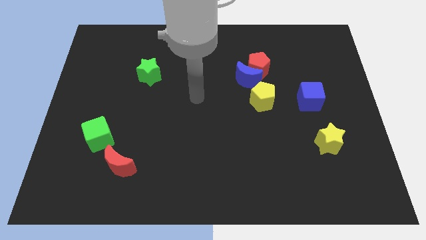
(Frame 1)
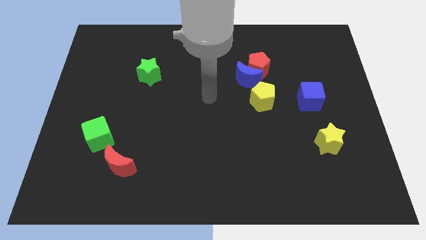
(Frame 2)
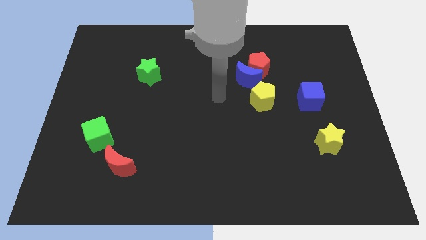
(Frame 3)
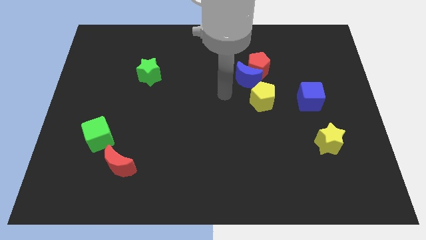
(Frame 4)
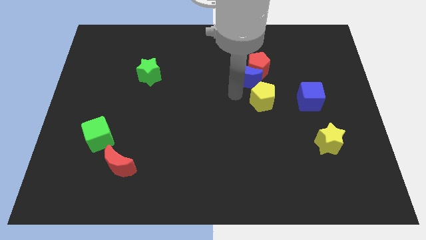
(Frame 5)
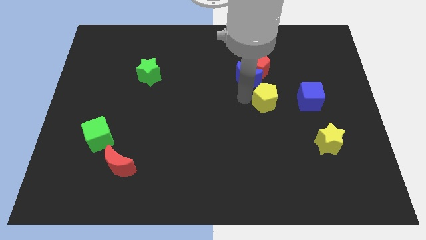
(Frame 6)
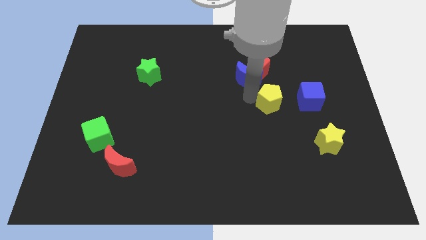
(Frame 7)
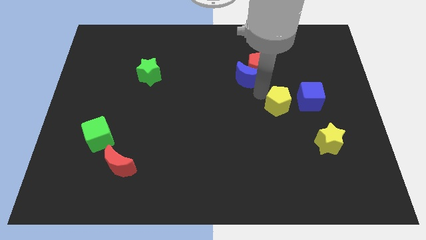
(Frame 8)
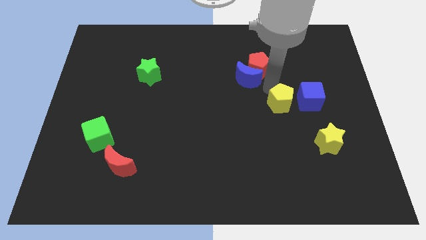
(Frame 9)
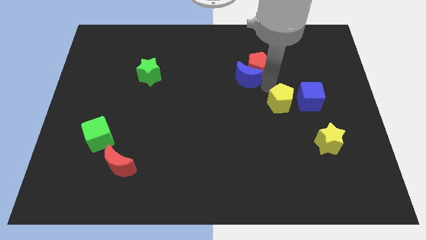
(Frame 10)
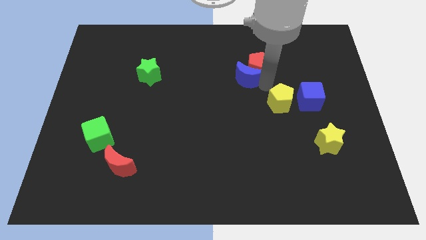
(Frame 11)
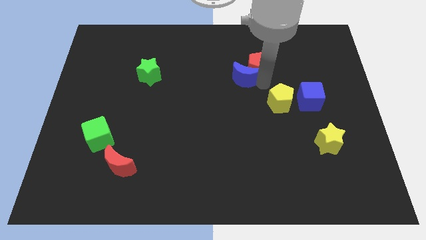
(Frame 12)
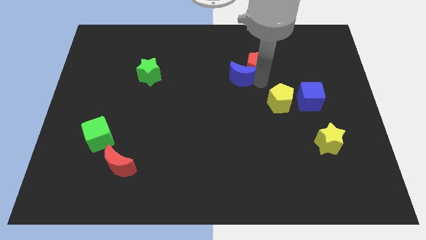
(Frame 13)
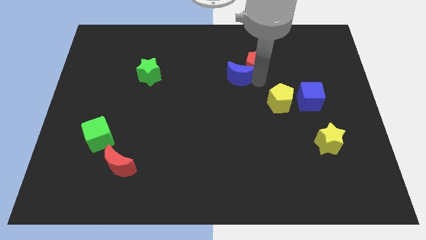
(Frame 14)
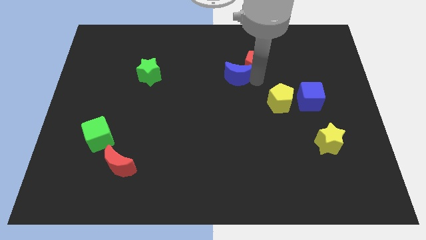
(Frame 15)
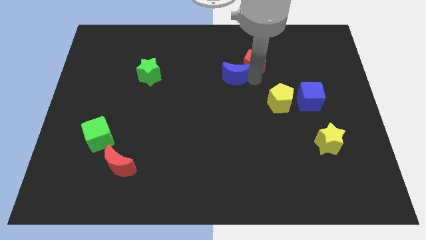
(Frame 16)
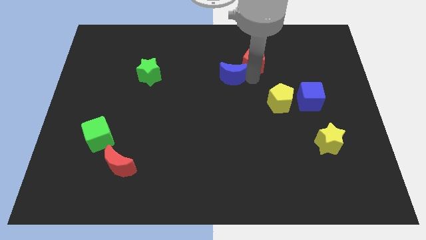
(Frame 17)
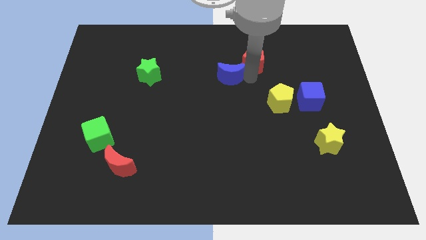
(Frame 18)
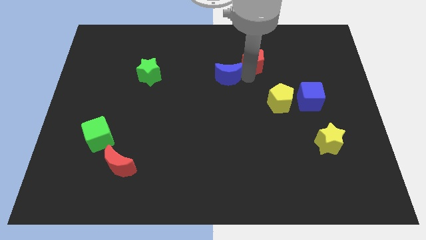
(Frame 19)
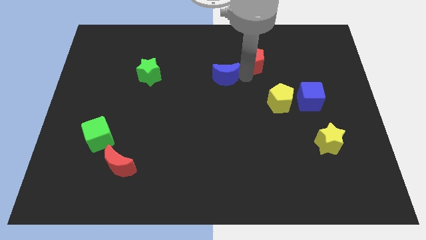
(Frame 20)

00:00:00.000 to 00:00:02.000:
move the blue moon away from the red pentagon and yellow pentagon

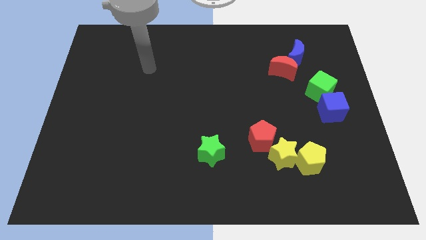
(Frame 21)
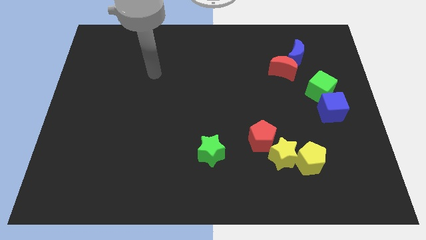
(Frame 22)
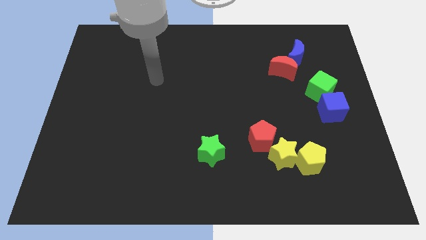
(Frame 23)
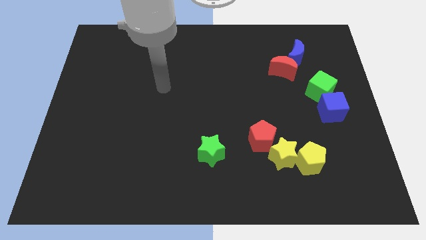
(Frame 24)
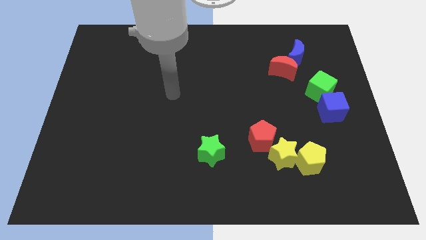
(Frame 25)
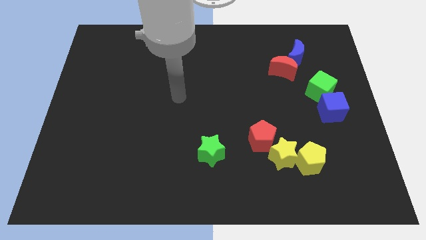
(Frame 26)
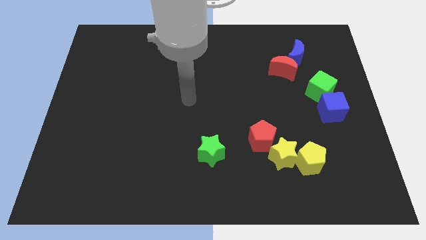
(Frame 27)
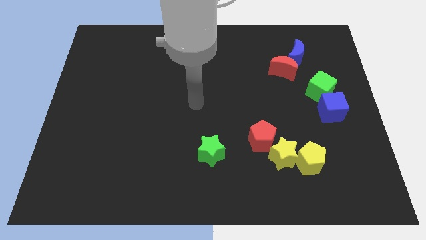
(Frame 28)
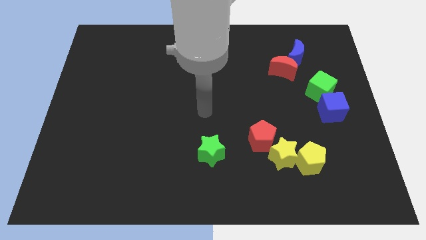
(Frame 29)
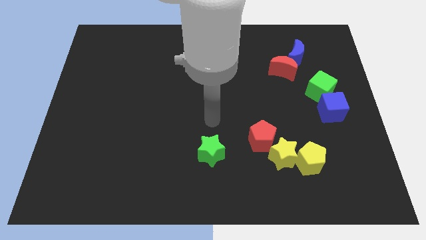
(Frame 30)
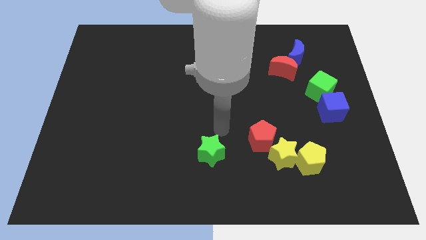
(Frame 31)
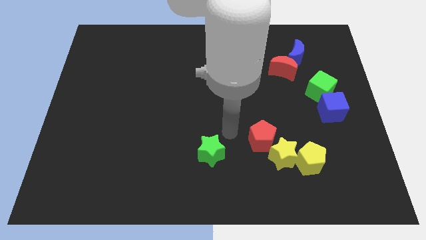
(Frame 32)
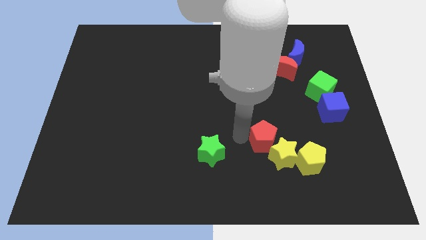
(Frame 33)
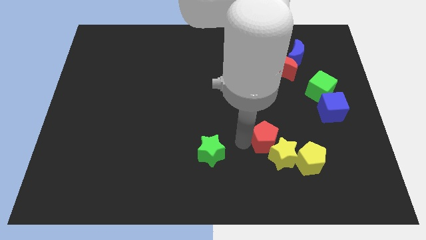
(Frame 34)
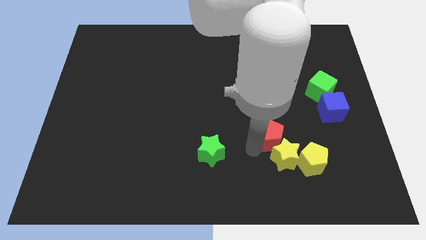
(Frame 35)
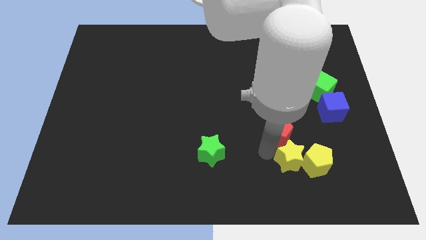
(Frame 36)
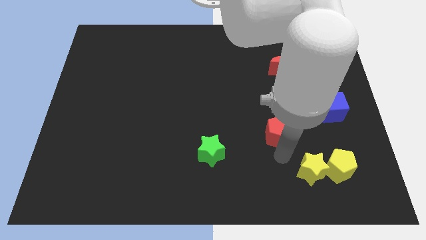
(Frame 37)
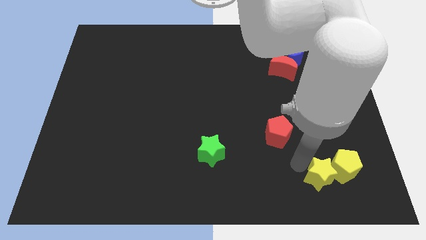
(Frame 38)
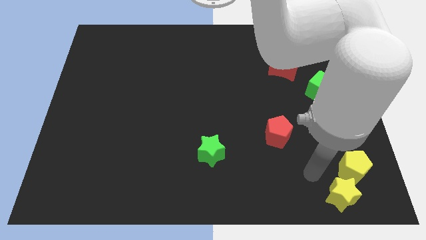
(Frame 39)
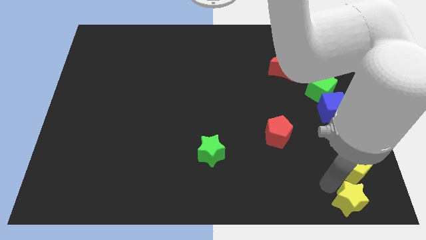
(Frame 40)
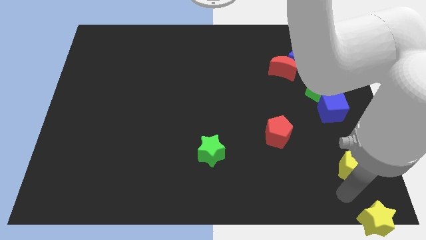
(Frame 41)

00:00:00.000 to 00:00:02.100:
move the yellow pentagon away from the yellow star

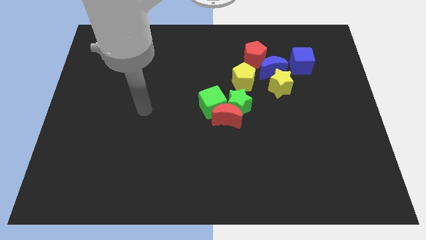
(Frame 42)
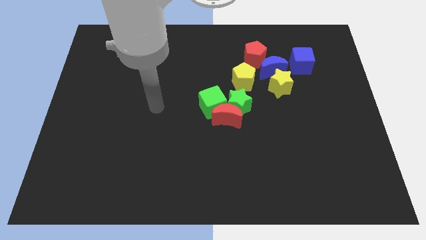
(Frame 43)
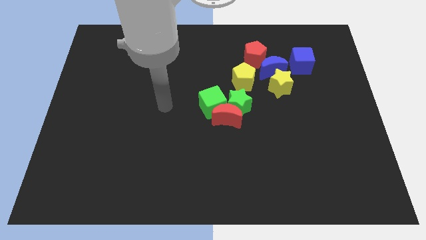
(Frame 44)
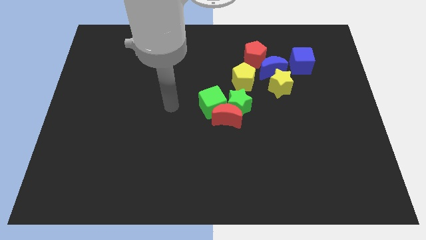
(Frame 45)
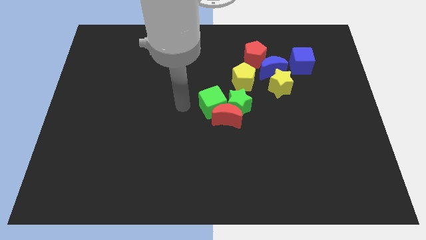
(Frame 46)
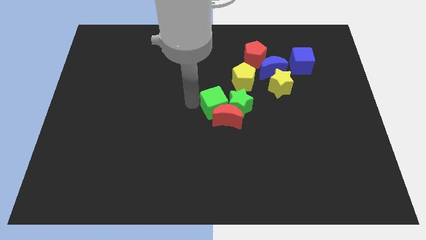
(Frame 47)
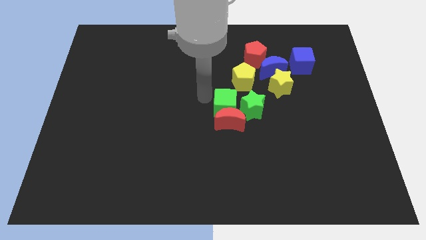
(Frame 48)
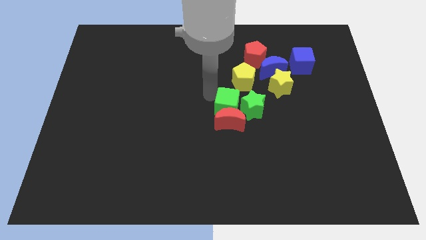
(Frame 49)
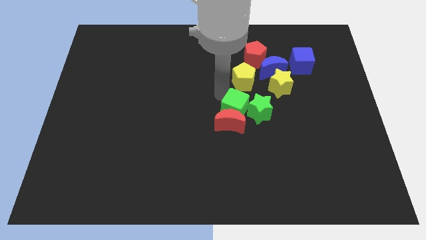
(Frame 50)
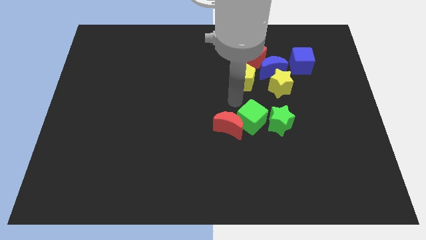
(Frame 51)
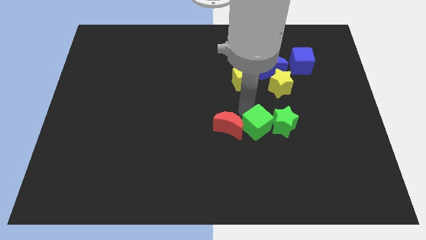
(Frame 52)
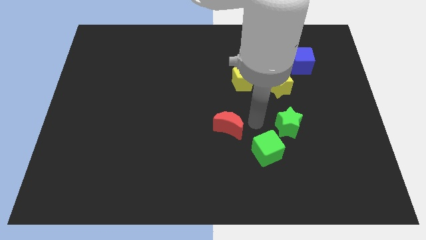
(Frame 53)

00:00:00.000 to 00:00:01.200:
separate the red moon from the green star and green cube

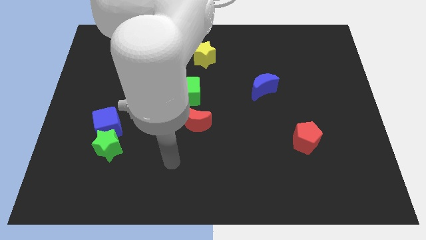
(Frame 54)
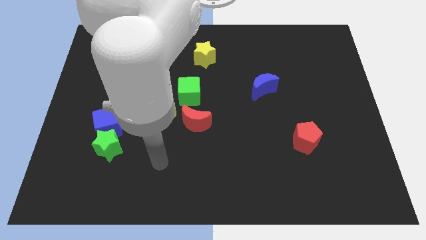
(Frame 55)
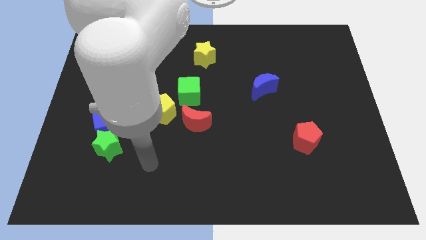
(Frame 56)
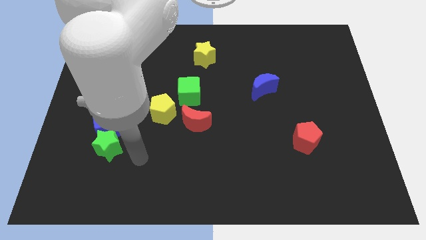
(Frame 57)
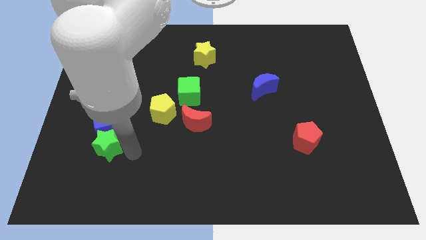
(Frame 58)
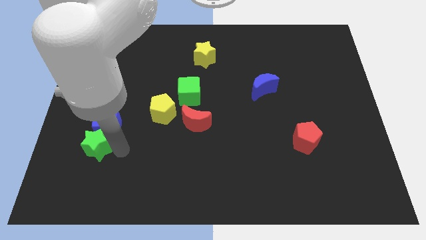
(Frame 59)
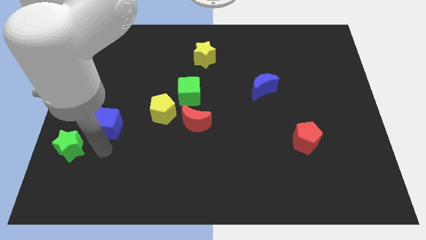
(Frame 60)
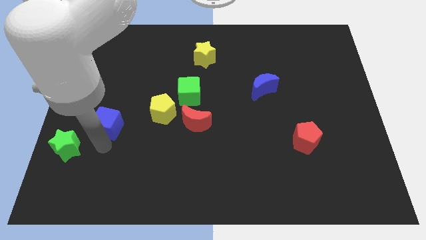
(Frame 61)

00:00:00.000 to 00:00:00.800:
move the blue cube away from the green star

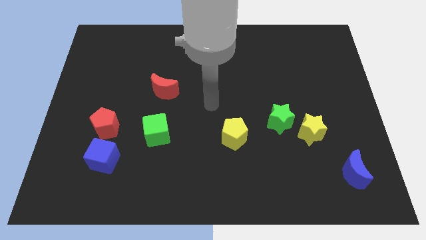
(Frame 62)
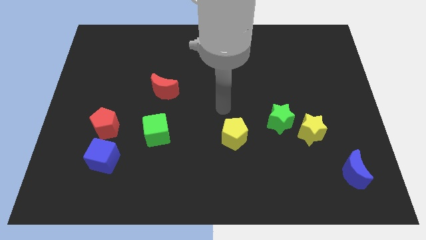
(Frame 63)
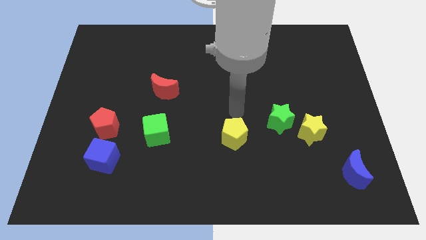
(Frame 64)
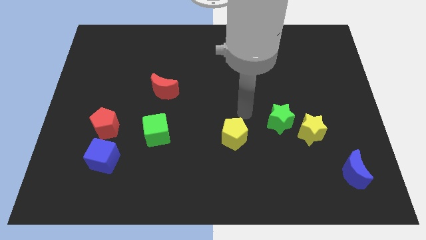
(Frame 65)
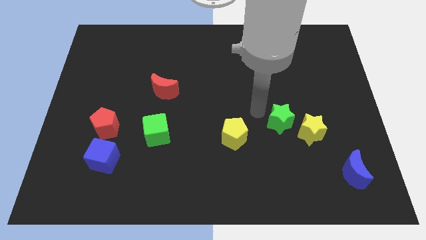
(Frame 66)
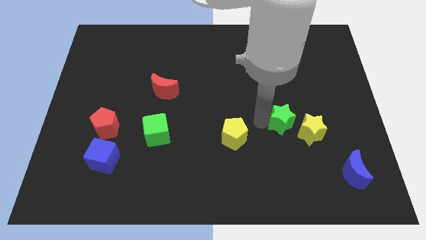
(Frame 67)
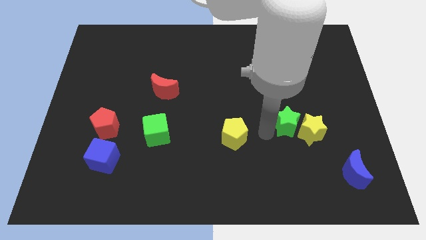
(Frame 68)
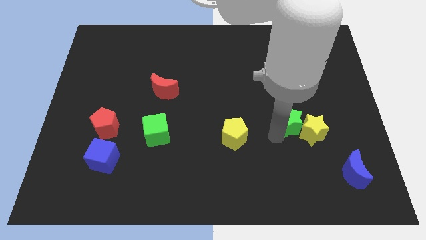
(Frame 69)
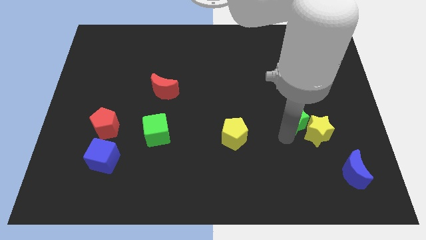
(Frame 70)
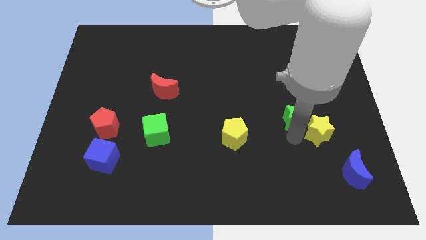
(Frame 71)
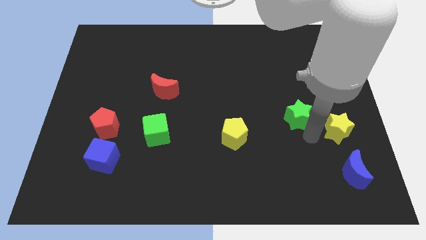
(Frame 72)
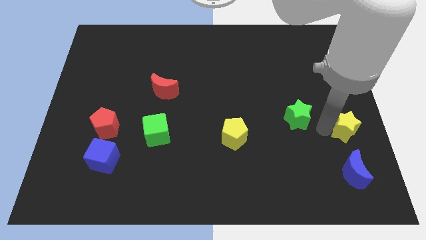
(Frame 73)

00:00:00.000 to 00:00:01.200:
pull the green star apart from the yellow star

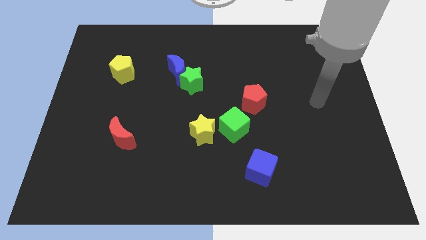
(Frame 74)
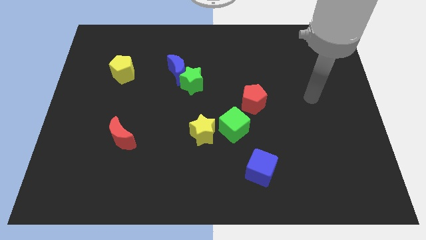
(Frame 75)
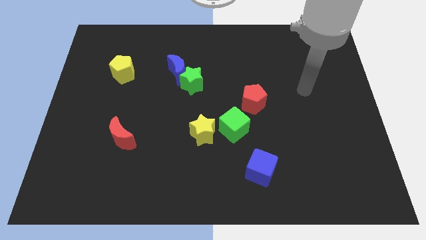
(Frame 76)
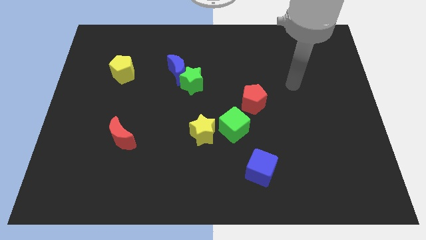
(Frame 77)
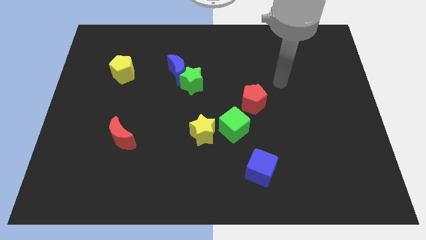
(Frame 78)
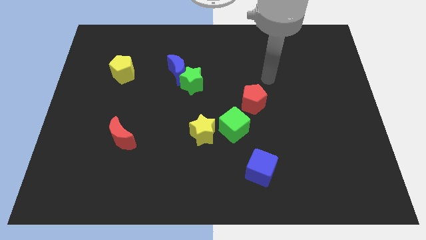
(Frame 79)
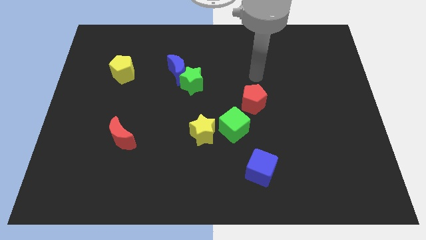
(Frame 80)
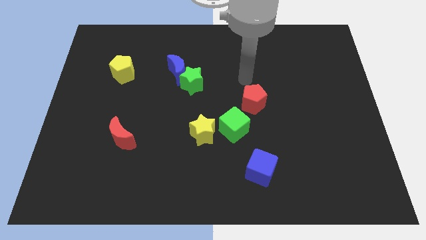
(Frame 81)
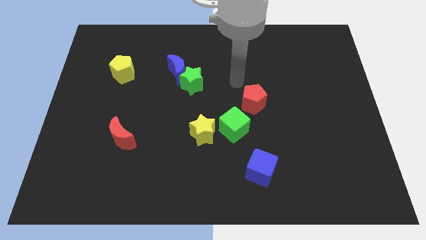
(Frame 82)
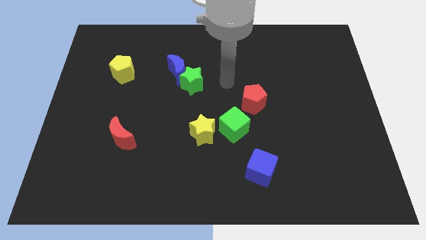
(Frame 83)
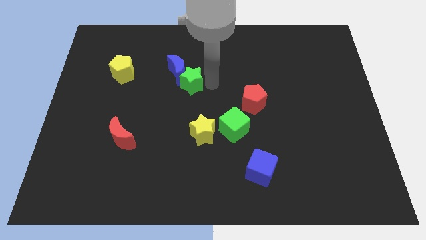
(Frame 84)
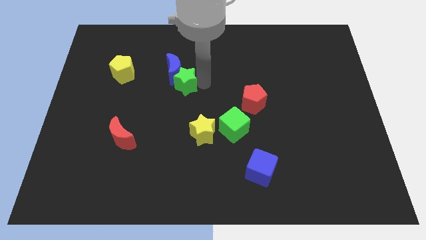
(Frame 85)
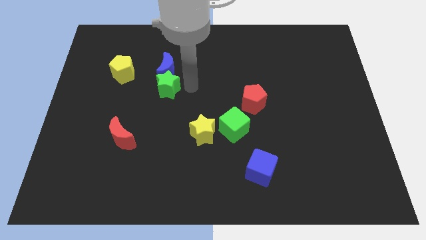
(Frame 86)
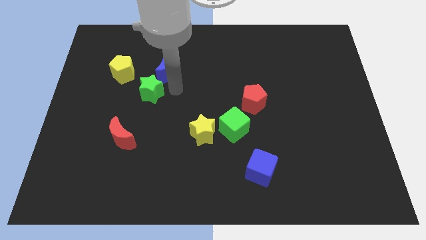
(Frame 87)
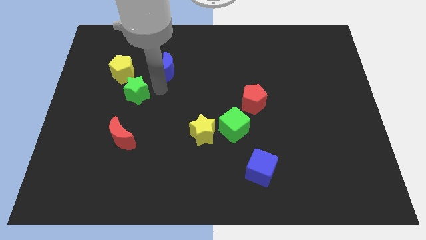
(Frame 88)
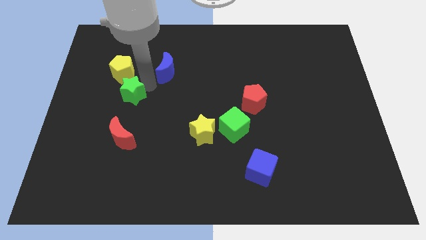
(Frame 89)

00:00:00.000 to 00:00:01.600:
separate the blue moon from the green star

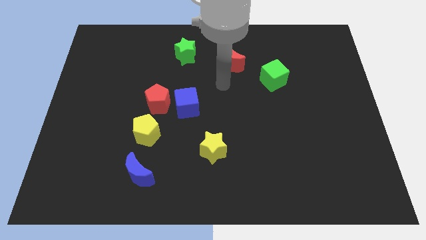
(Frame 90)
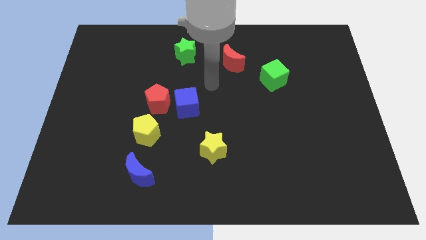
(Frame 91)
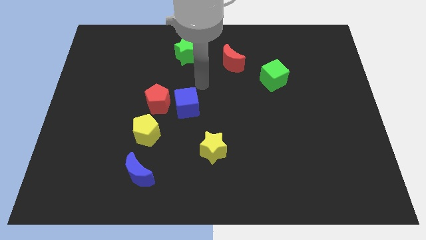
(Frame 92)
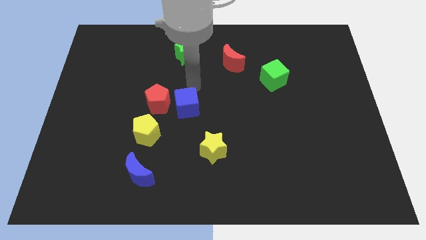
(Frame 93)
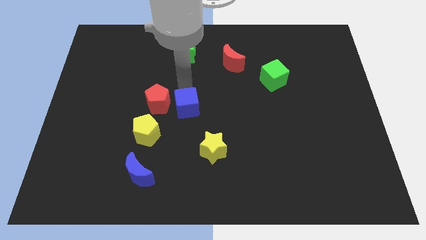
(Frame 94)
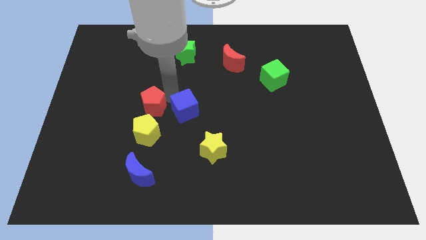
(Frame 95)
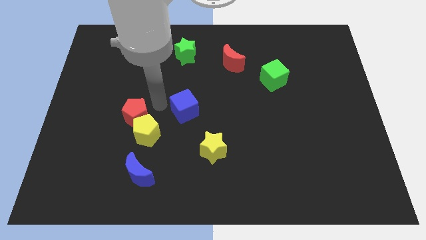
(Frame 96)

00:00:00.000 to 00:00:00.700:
move the blue cube away from the red pentagon
